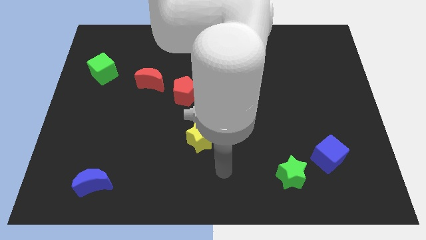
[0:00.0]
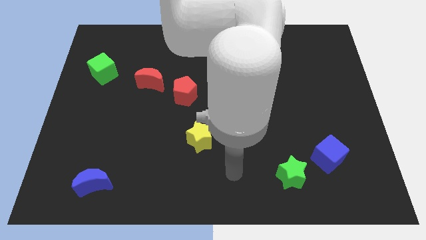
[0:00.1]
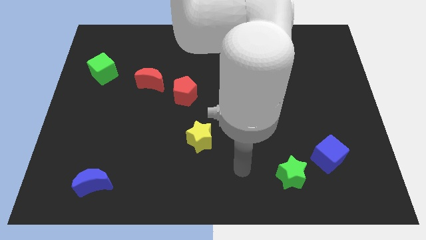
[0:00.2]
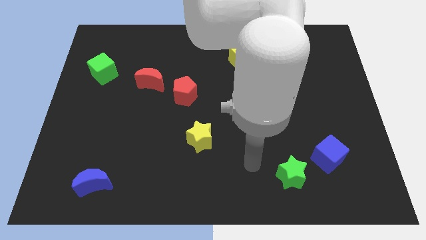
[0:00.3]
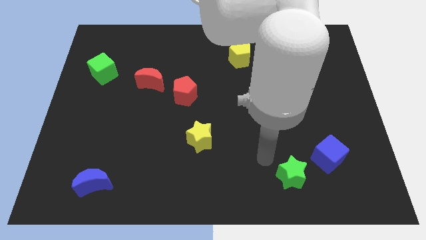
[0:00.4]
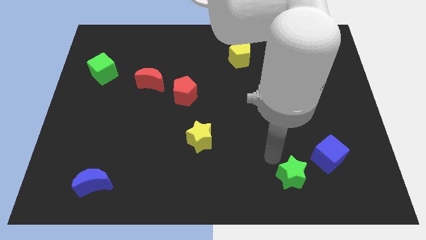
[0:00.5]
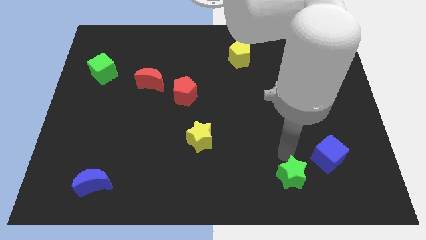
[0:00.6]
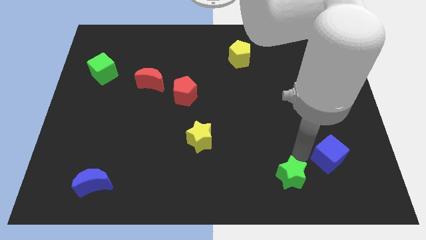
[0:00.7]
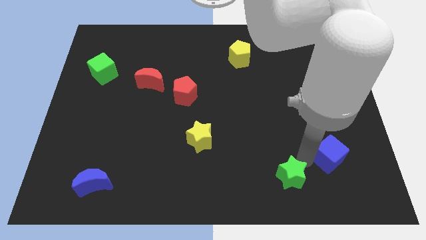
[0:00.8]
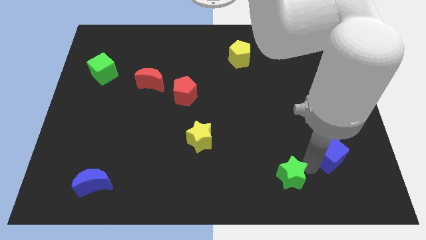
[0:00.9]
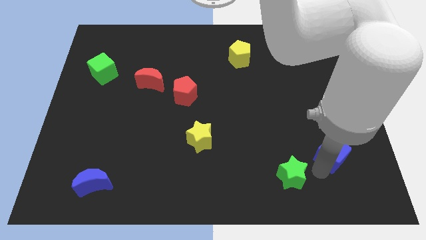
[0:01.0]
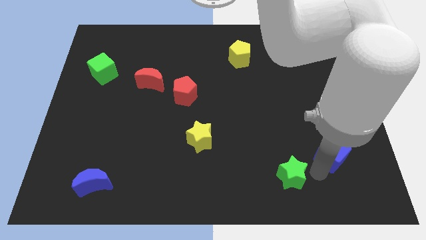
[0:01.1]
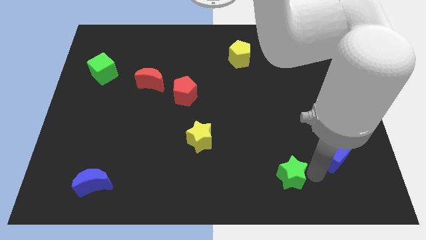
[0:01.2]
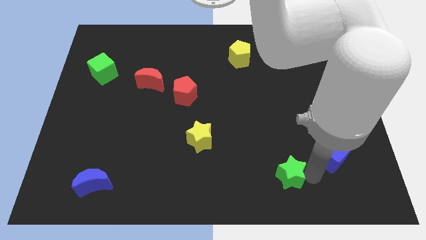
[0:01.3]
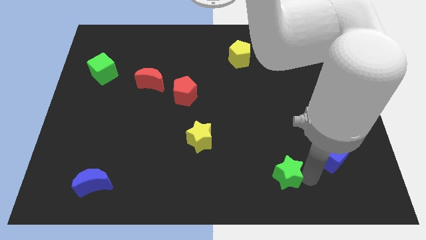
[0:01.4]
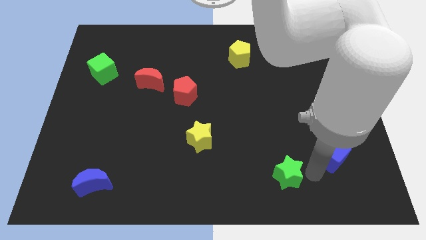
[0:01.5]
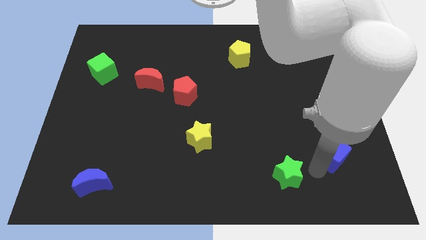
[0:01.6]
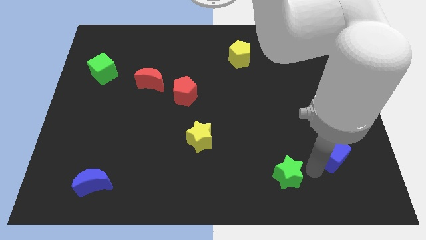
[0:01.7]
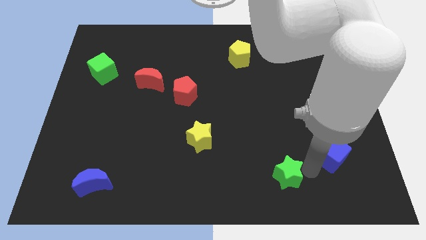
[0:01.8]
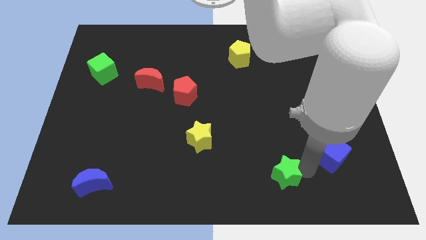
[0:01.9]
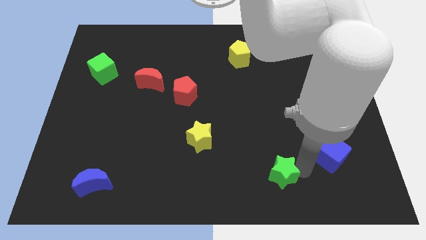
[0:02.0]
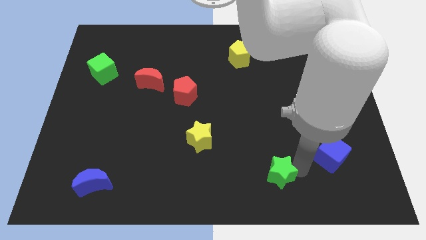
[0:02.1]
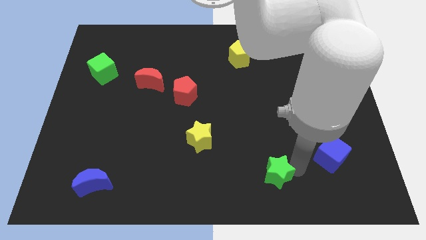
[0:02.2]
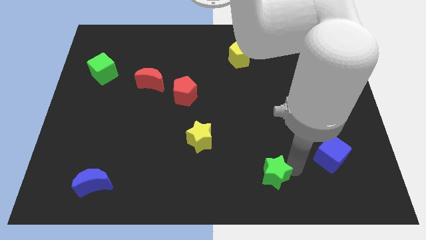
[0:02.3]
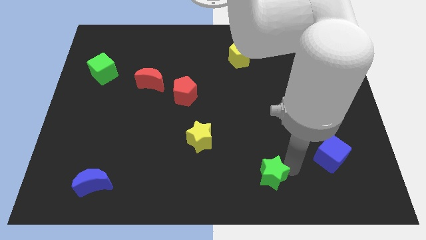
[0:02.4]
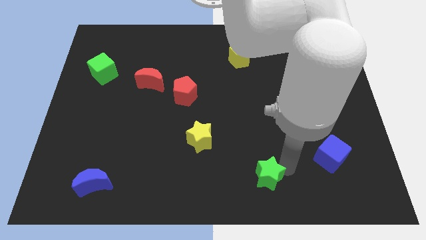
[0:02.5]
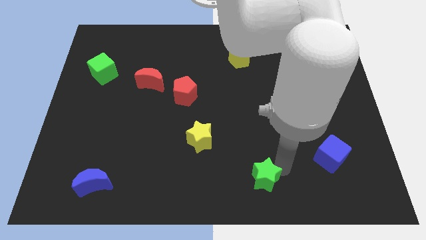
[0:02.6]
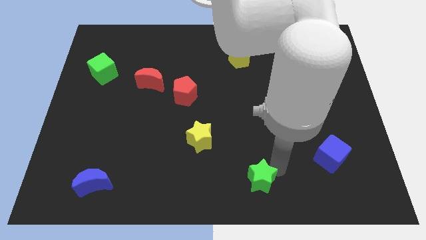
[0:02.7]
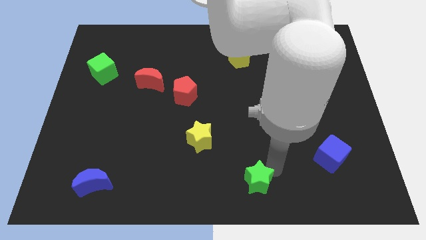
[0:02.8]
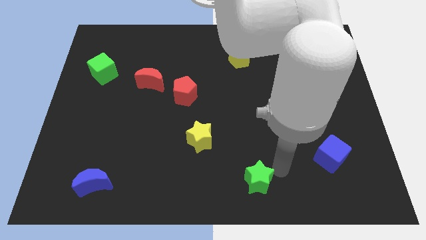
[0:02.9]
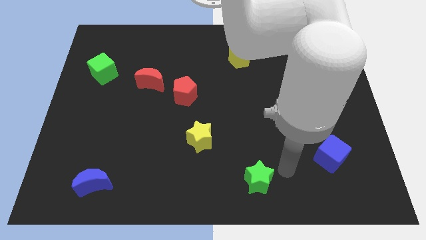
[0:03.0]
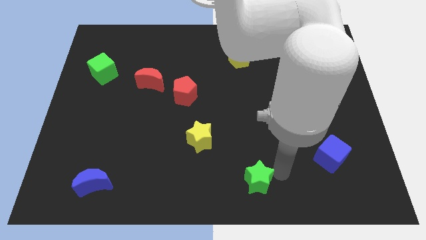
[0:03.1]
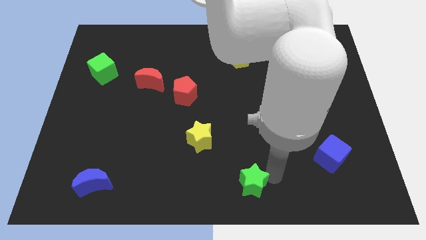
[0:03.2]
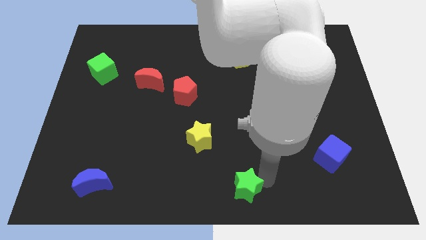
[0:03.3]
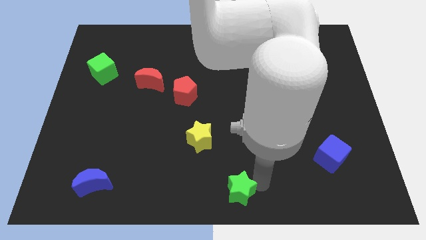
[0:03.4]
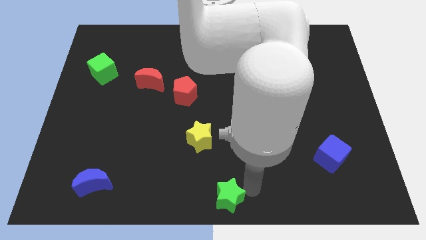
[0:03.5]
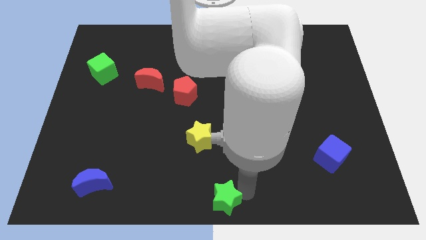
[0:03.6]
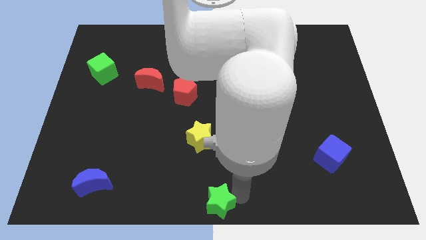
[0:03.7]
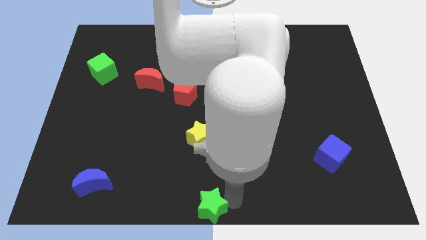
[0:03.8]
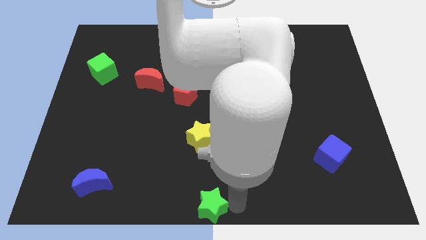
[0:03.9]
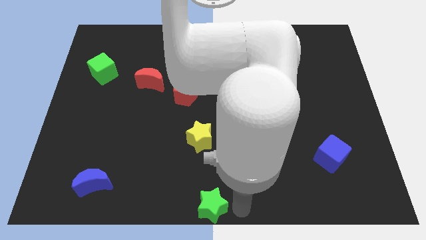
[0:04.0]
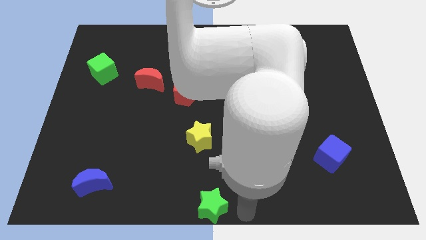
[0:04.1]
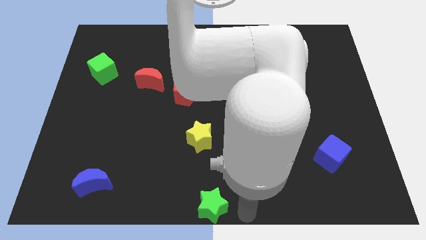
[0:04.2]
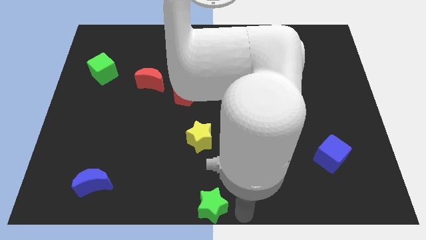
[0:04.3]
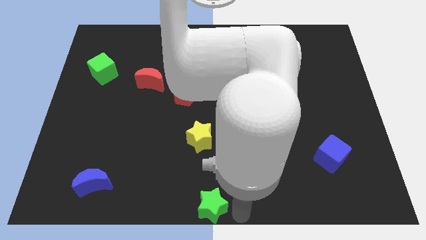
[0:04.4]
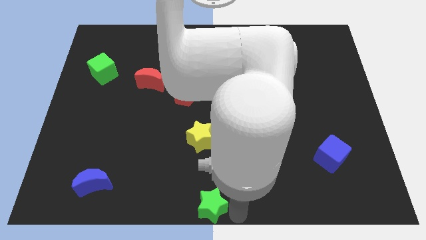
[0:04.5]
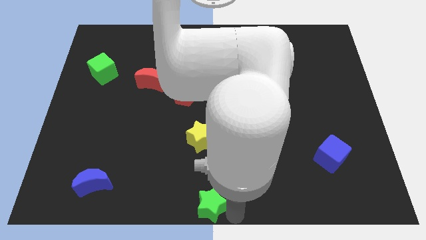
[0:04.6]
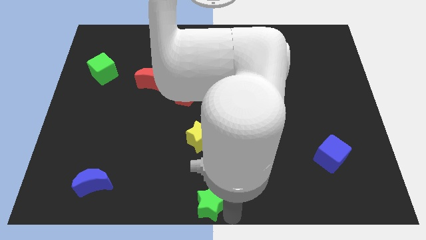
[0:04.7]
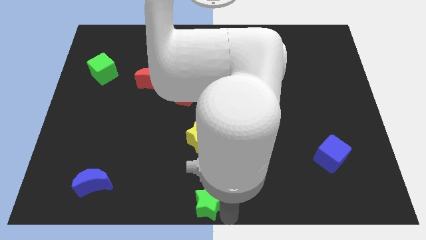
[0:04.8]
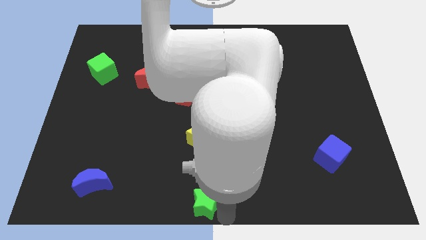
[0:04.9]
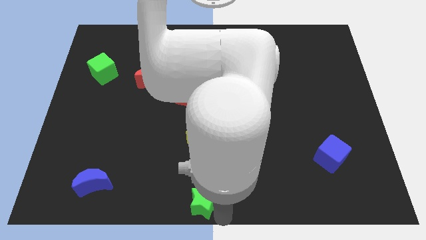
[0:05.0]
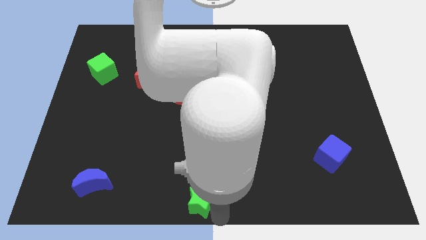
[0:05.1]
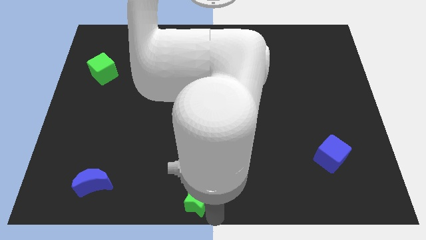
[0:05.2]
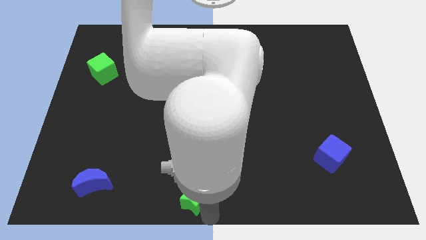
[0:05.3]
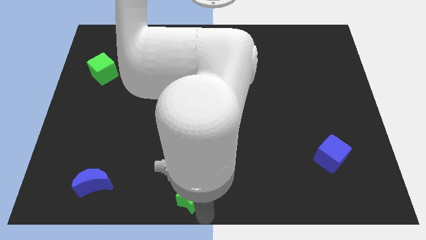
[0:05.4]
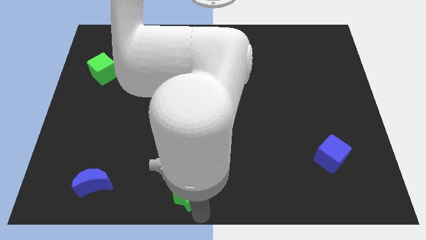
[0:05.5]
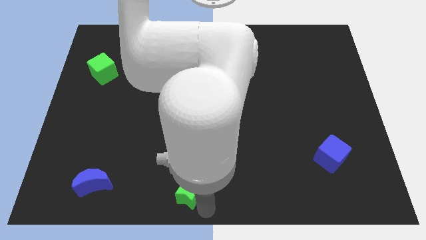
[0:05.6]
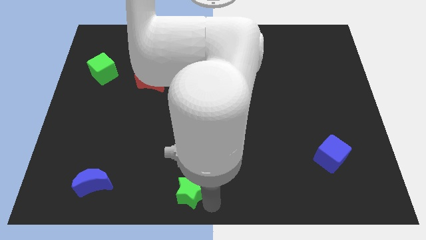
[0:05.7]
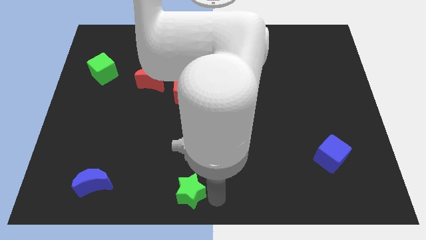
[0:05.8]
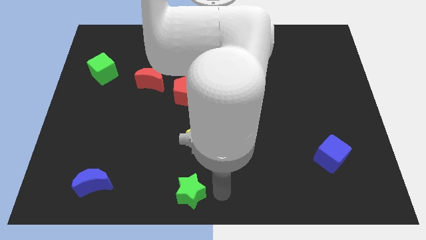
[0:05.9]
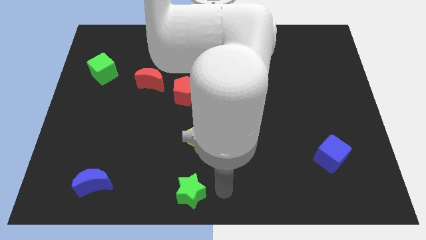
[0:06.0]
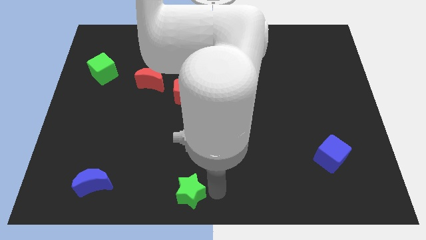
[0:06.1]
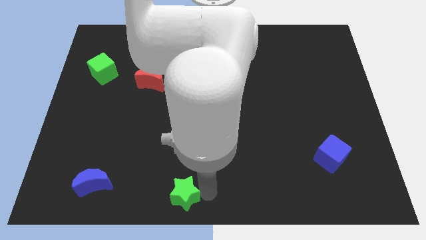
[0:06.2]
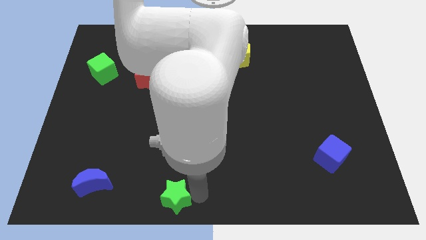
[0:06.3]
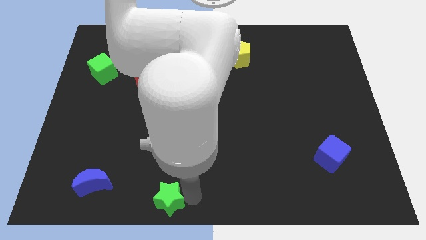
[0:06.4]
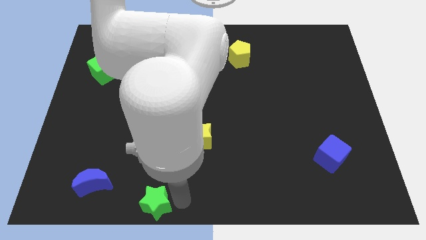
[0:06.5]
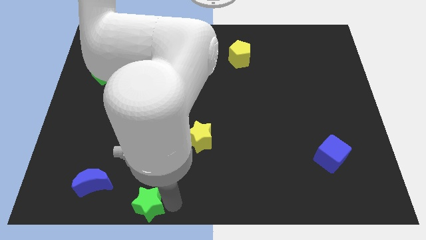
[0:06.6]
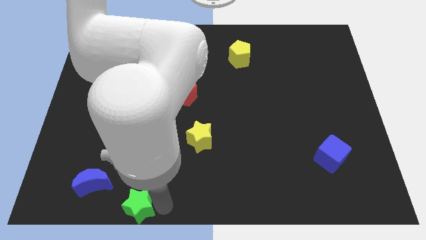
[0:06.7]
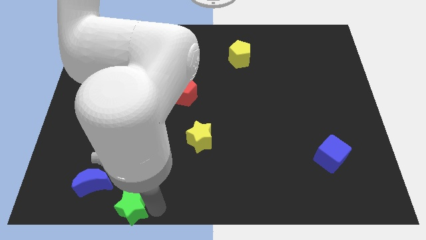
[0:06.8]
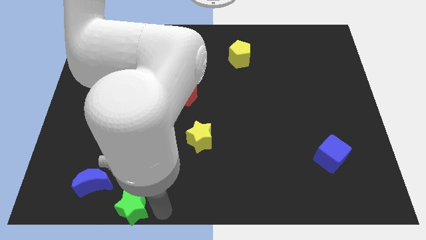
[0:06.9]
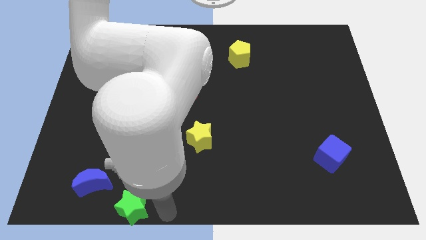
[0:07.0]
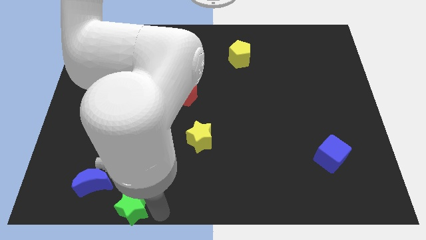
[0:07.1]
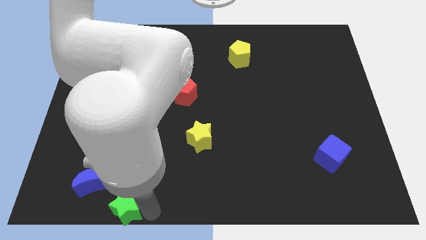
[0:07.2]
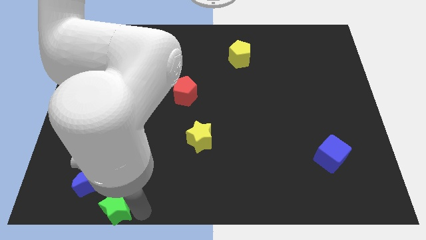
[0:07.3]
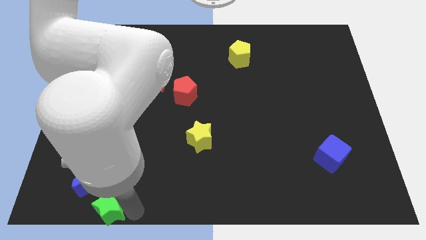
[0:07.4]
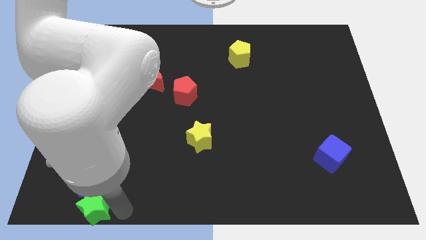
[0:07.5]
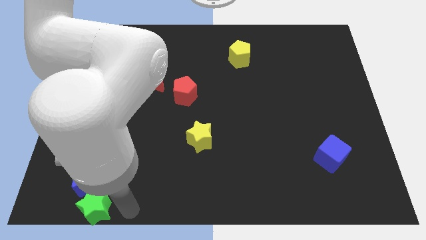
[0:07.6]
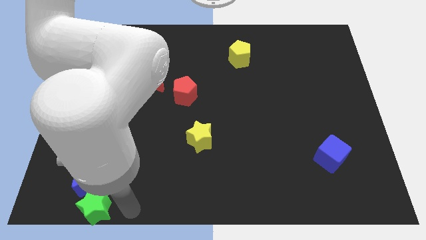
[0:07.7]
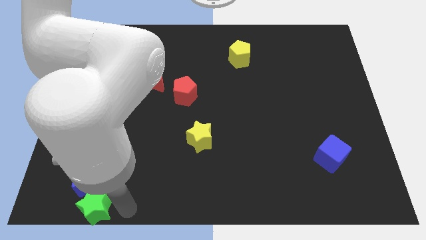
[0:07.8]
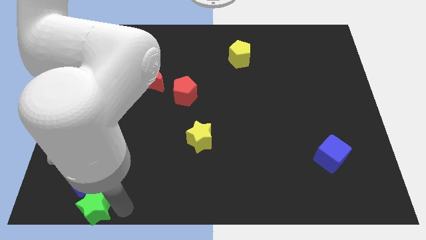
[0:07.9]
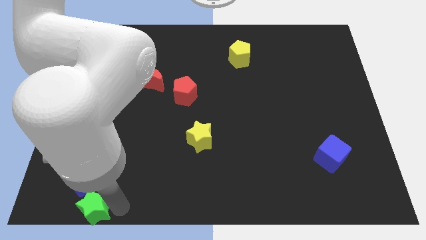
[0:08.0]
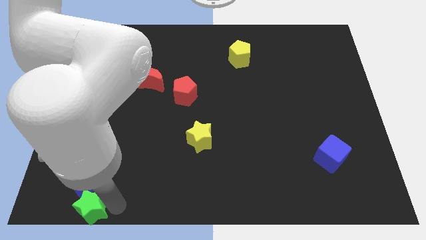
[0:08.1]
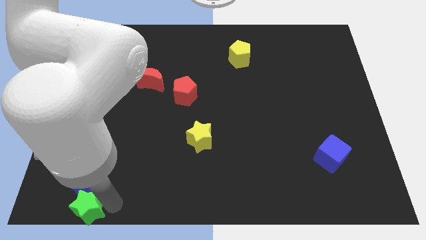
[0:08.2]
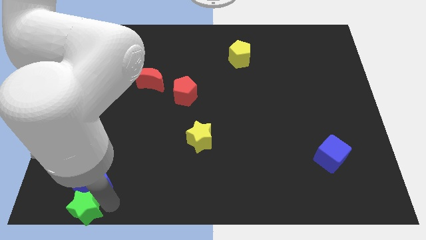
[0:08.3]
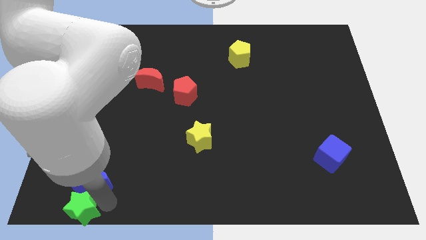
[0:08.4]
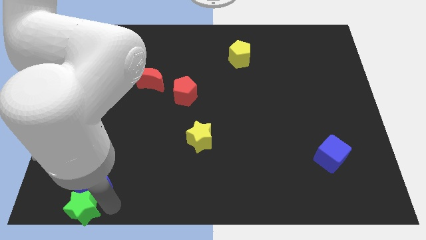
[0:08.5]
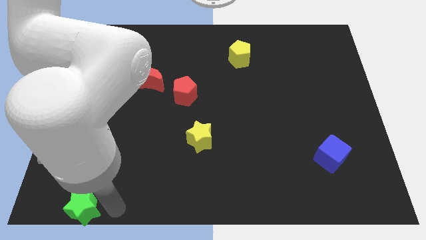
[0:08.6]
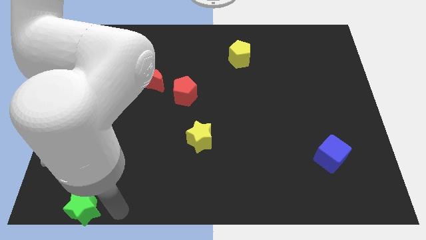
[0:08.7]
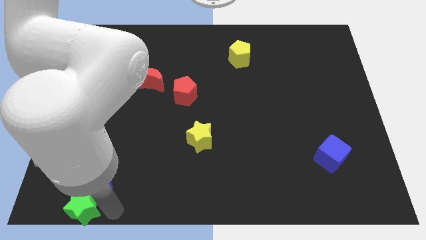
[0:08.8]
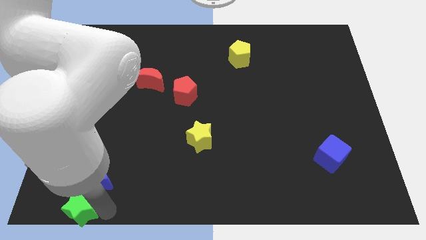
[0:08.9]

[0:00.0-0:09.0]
put the green star to the lower left corner
